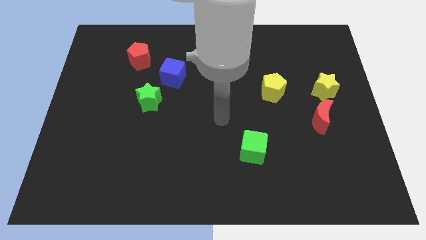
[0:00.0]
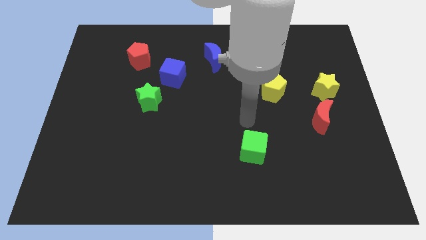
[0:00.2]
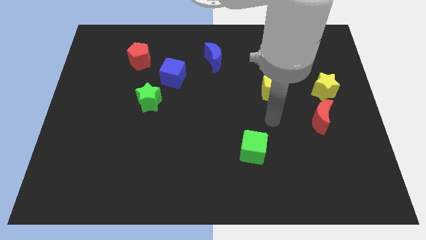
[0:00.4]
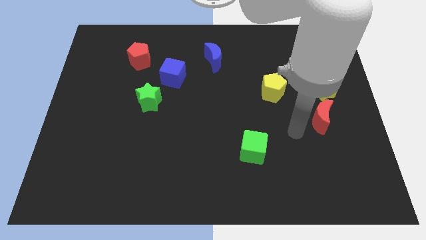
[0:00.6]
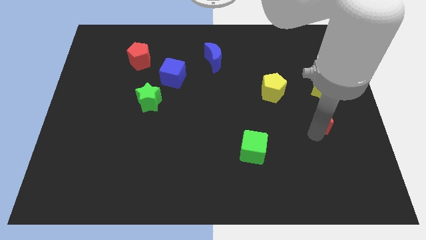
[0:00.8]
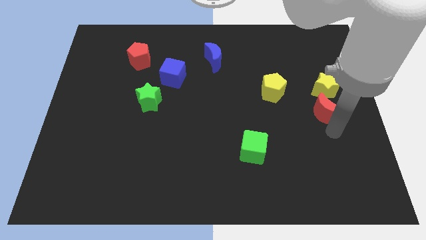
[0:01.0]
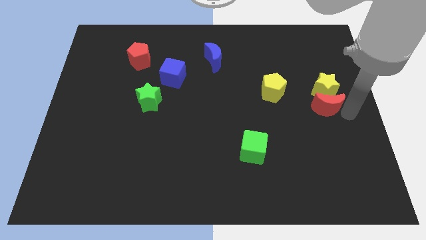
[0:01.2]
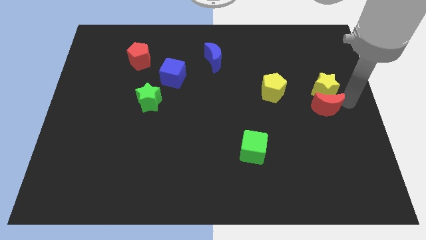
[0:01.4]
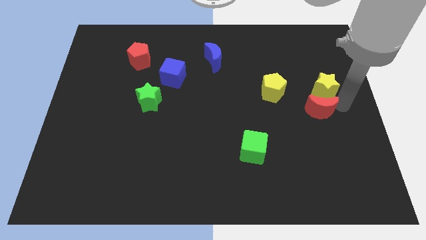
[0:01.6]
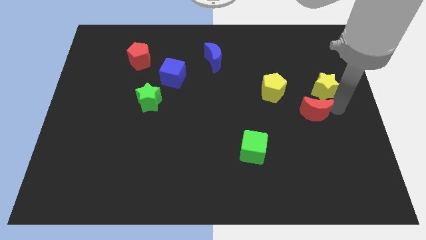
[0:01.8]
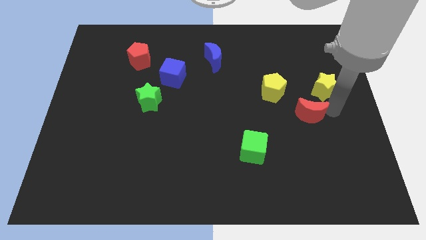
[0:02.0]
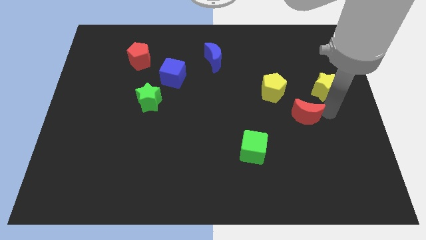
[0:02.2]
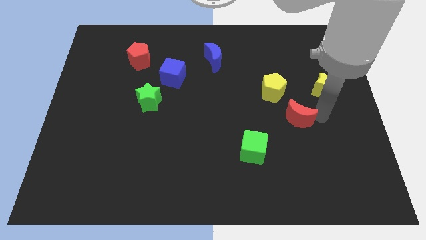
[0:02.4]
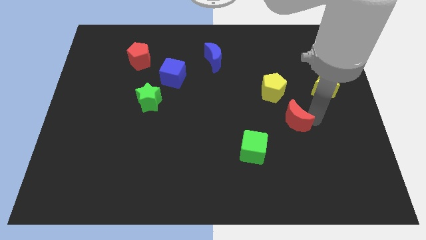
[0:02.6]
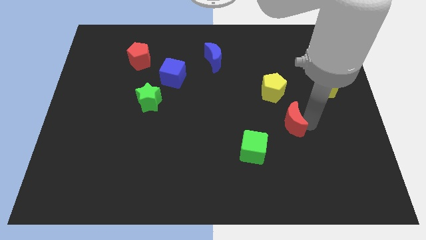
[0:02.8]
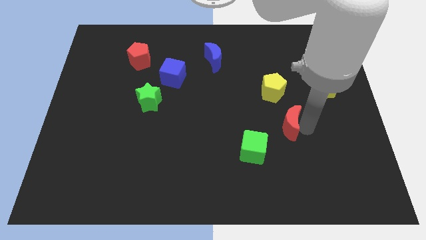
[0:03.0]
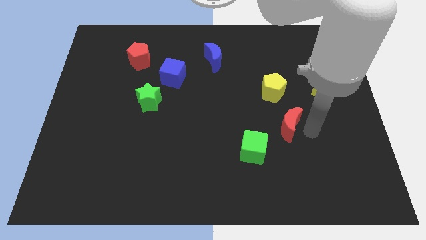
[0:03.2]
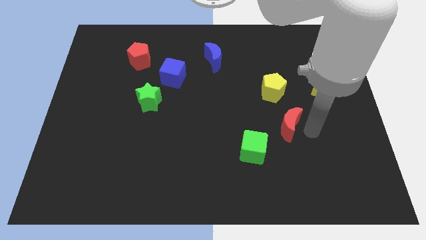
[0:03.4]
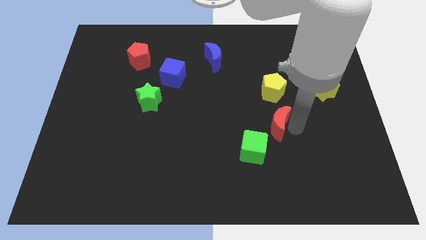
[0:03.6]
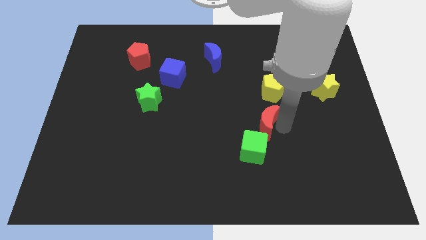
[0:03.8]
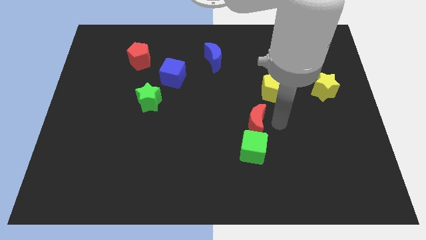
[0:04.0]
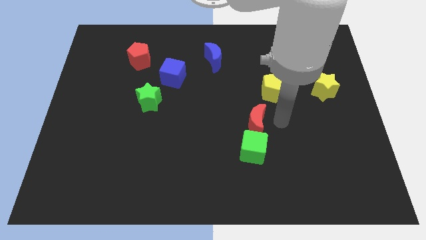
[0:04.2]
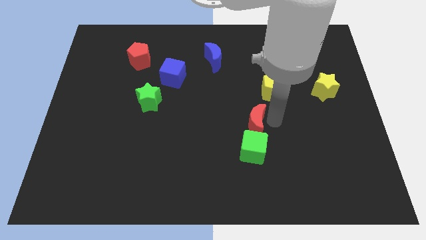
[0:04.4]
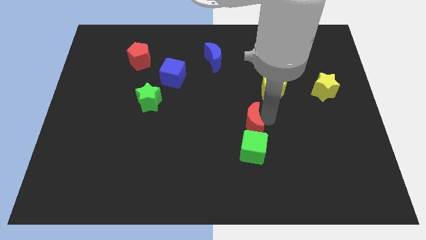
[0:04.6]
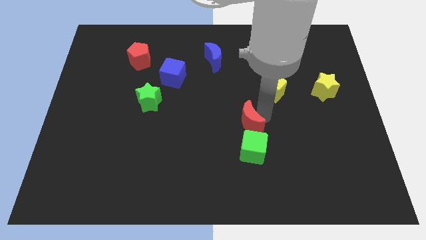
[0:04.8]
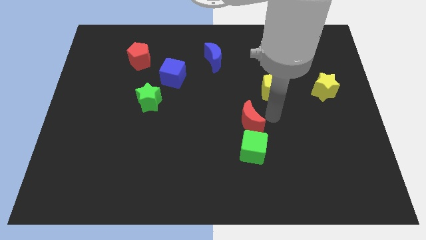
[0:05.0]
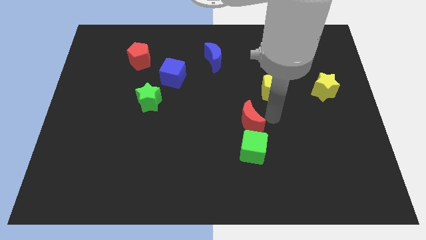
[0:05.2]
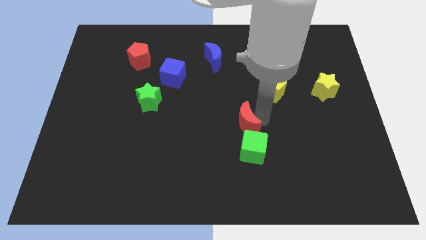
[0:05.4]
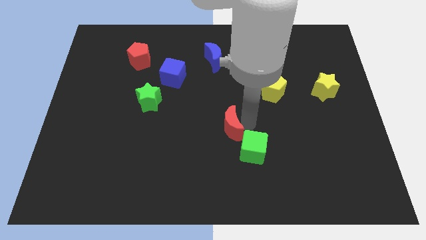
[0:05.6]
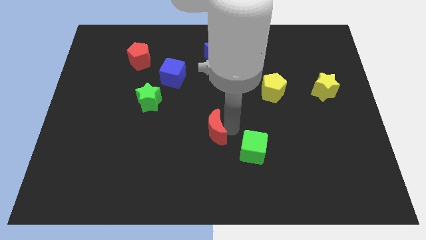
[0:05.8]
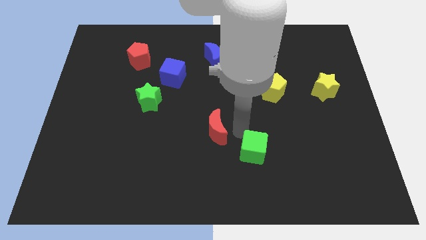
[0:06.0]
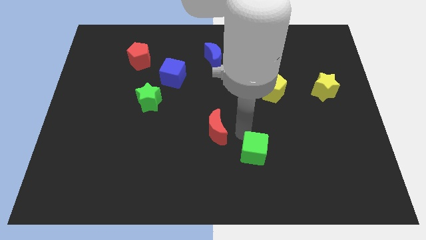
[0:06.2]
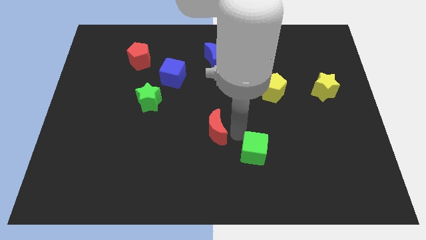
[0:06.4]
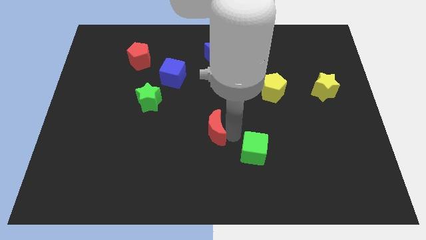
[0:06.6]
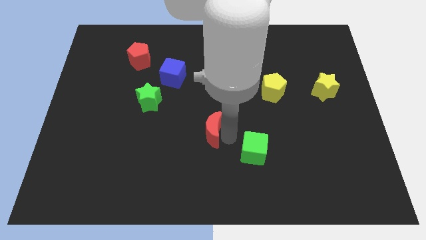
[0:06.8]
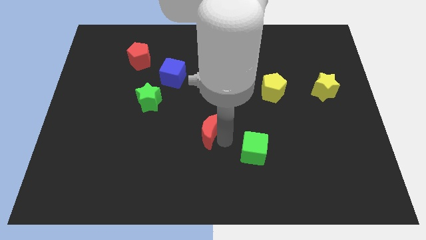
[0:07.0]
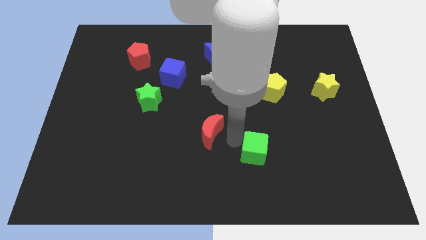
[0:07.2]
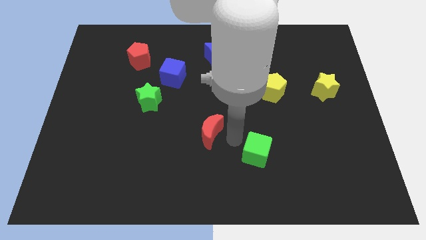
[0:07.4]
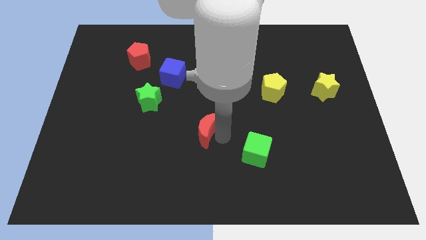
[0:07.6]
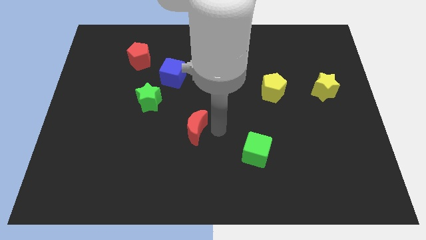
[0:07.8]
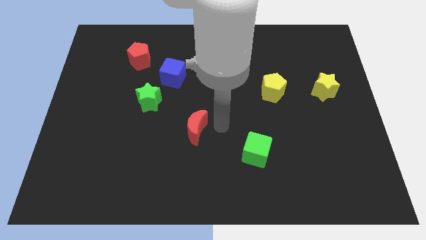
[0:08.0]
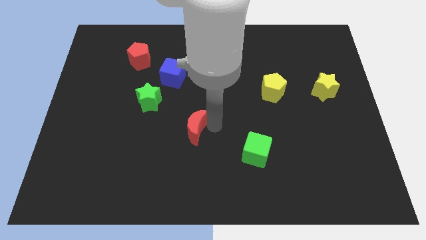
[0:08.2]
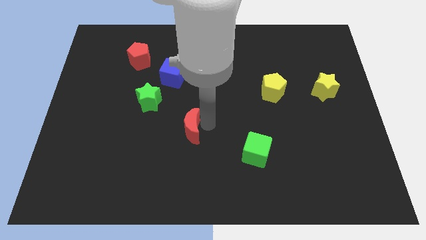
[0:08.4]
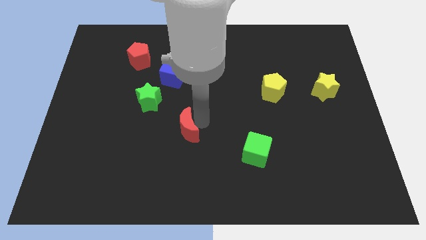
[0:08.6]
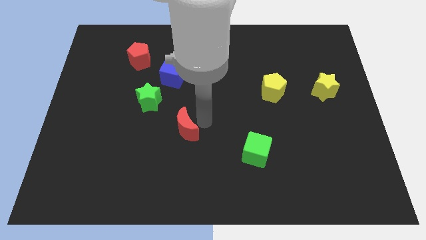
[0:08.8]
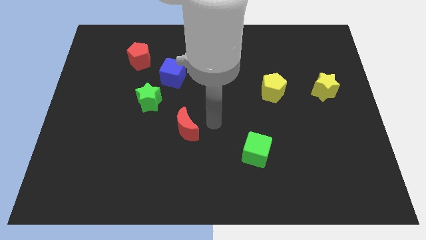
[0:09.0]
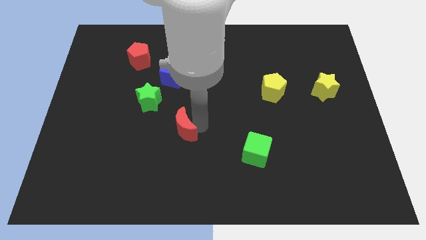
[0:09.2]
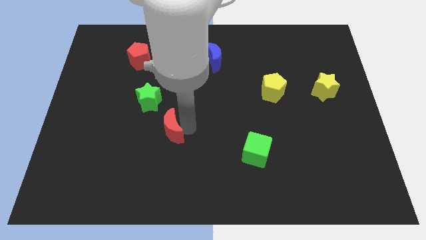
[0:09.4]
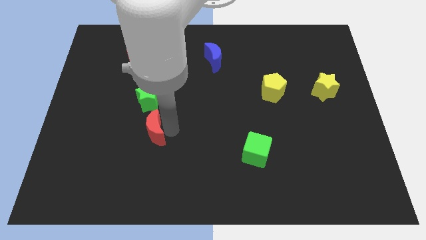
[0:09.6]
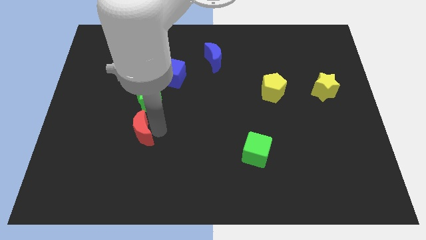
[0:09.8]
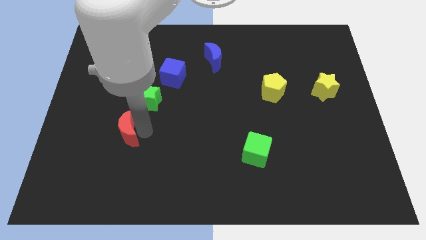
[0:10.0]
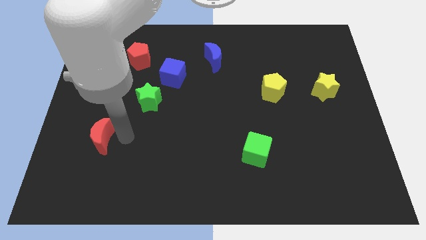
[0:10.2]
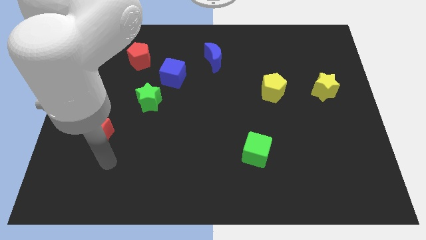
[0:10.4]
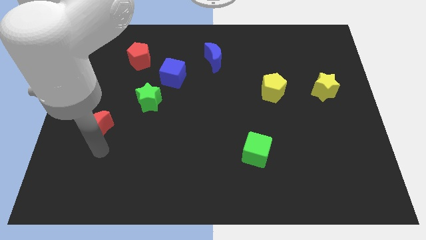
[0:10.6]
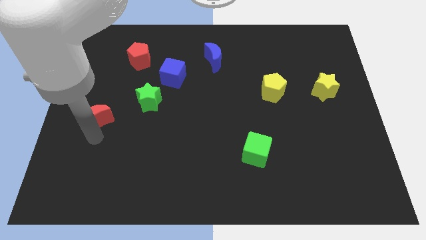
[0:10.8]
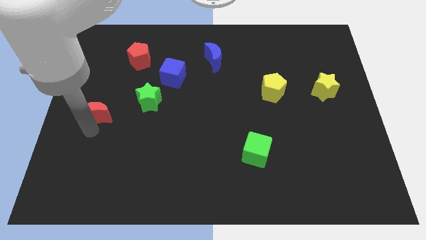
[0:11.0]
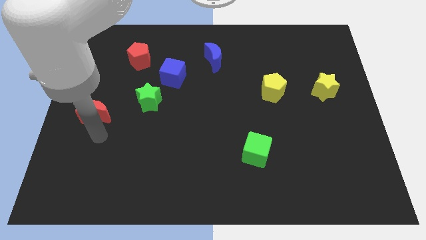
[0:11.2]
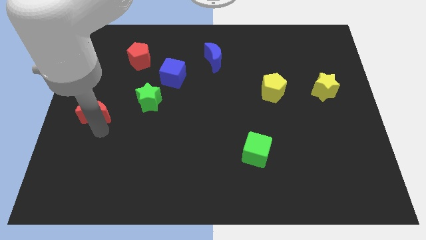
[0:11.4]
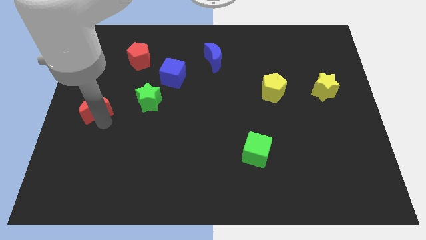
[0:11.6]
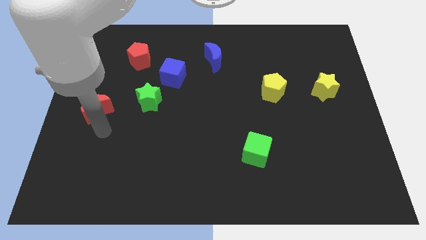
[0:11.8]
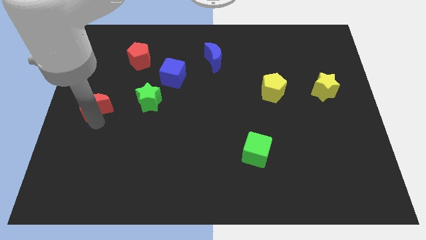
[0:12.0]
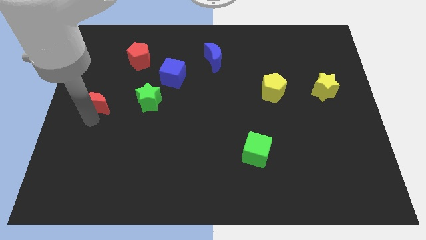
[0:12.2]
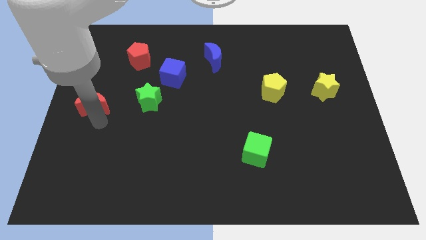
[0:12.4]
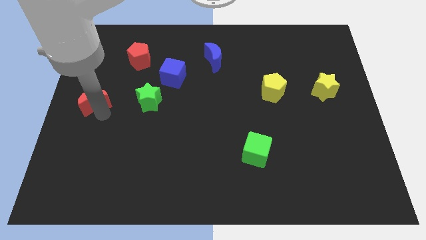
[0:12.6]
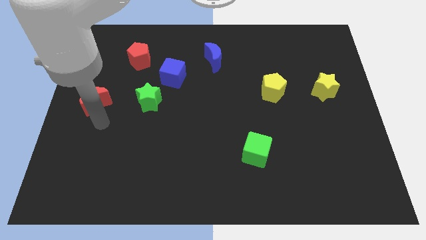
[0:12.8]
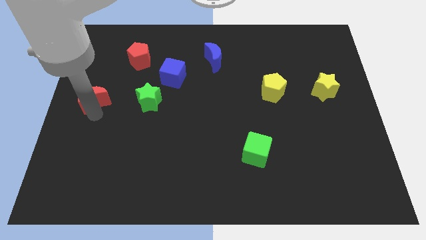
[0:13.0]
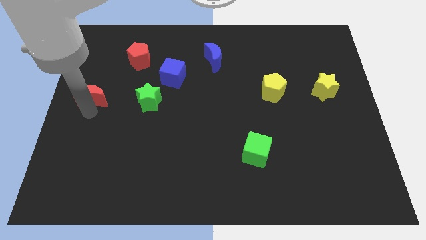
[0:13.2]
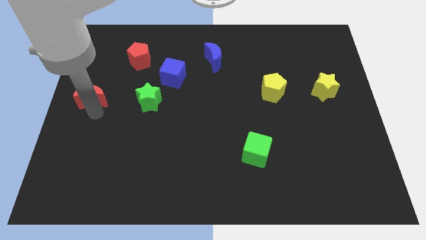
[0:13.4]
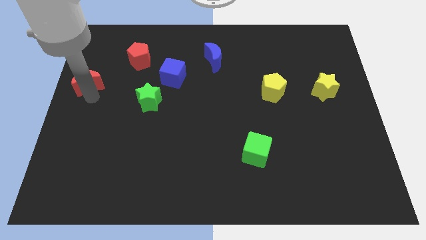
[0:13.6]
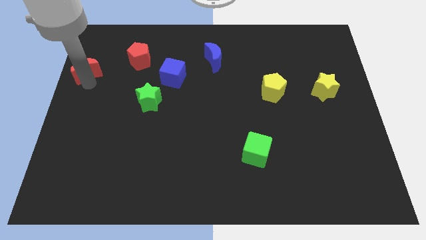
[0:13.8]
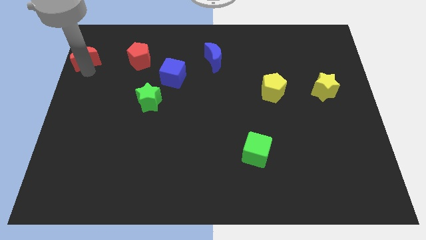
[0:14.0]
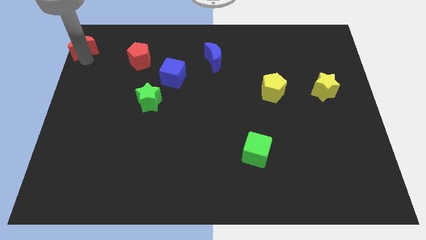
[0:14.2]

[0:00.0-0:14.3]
slide the red moon to the upper left corner

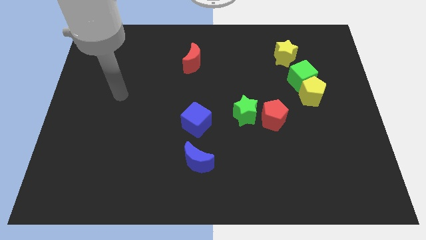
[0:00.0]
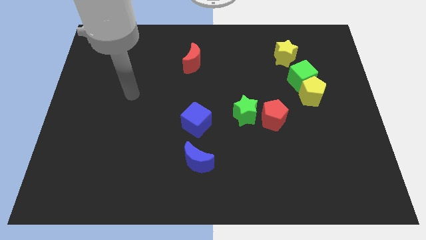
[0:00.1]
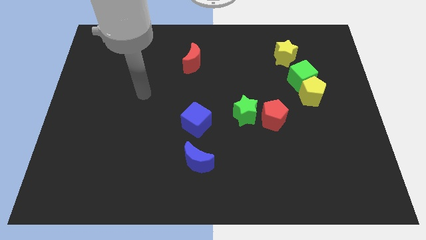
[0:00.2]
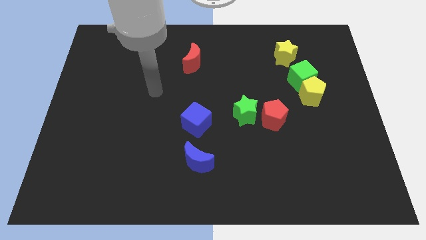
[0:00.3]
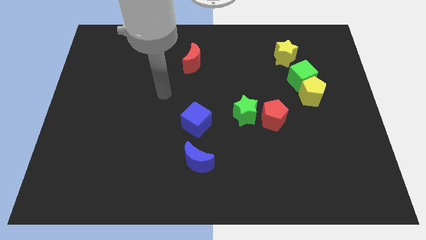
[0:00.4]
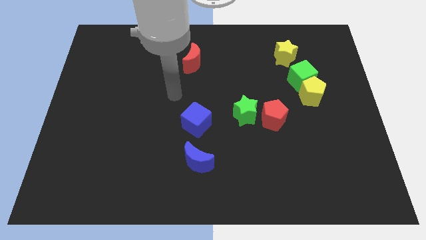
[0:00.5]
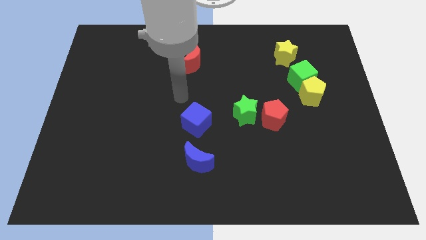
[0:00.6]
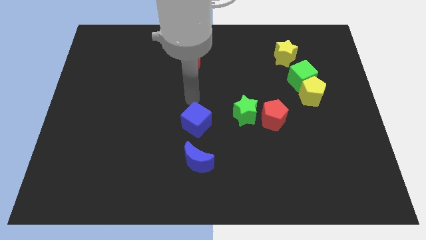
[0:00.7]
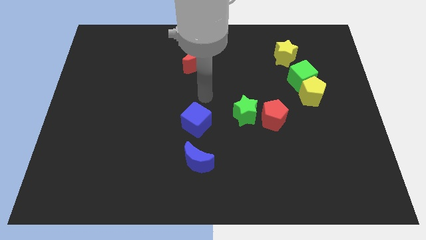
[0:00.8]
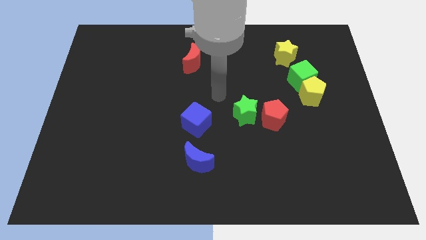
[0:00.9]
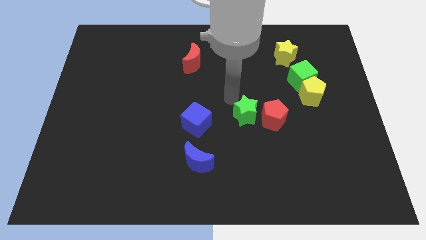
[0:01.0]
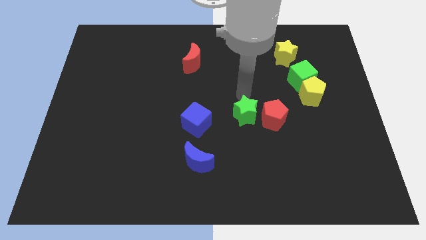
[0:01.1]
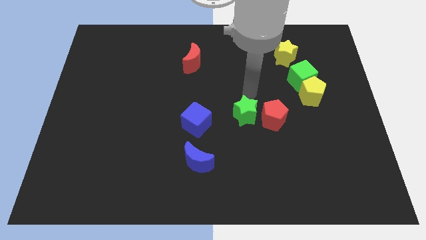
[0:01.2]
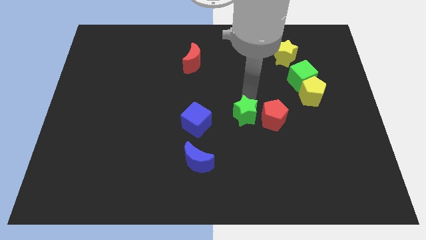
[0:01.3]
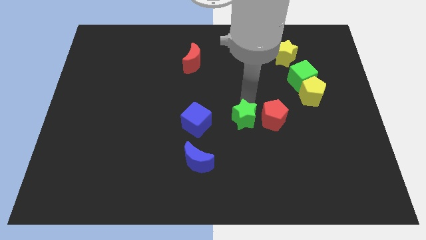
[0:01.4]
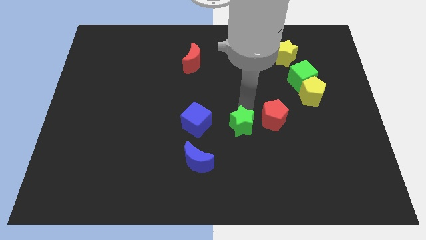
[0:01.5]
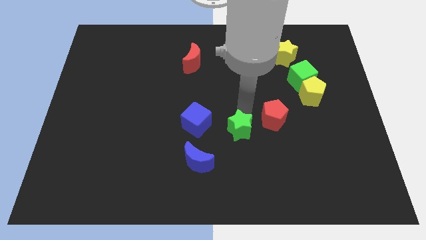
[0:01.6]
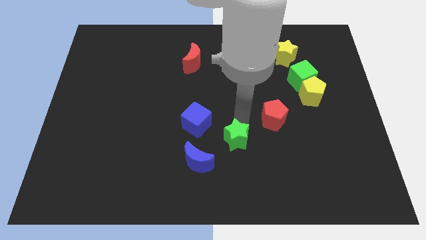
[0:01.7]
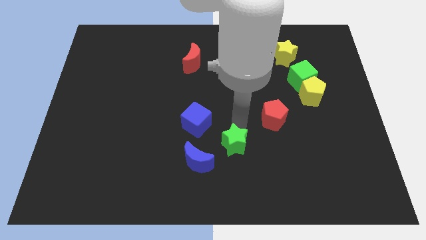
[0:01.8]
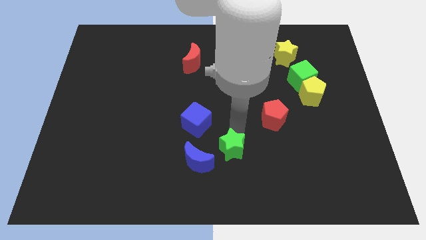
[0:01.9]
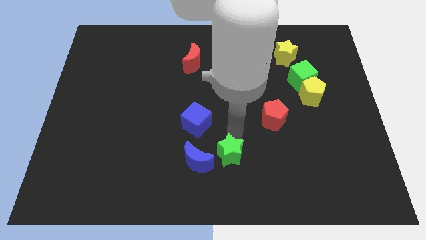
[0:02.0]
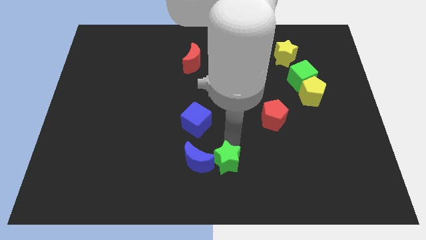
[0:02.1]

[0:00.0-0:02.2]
slide the green star to the bottom
